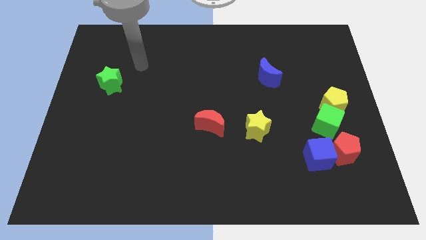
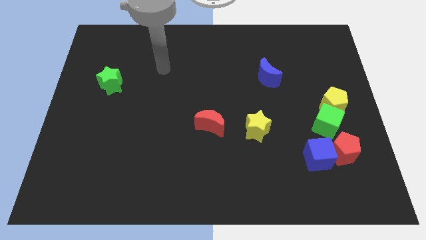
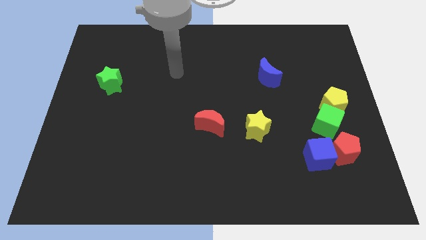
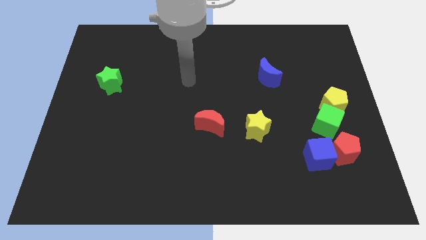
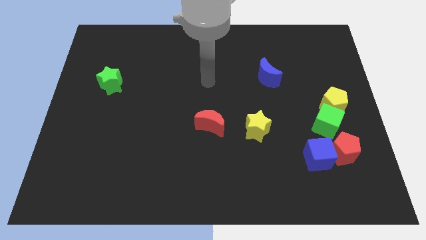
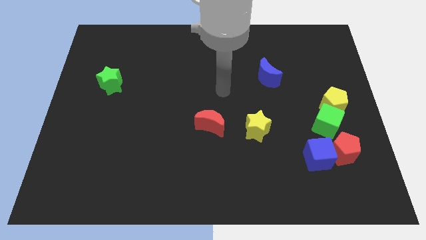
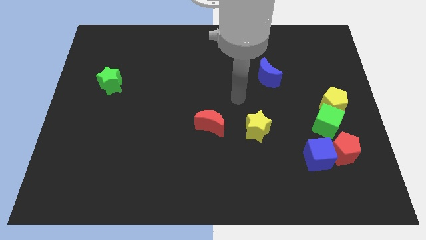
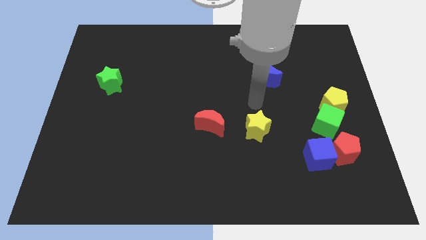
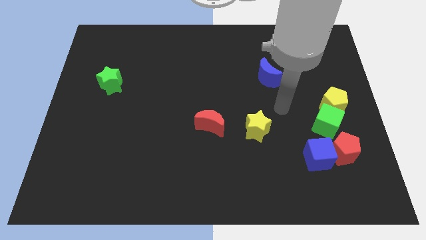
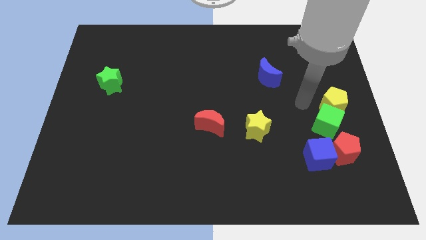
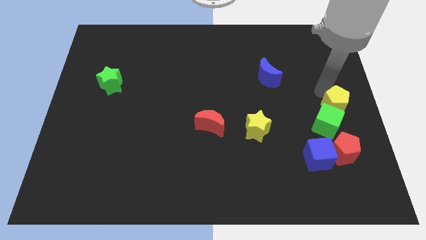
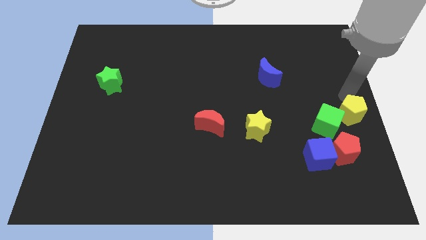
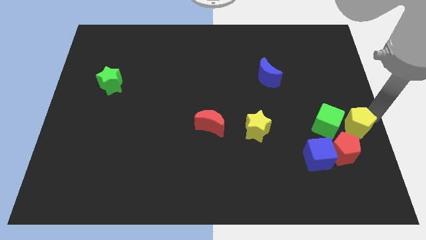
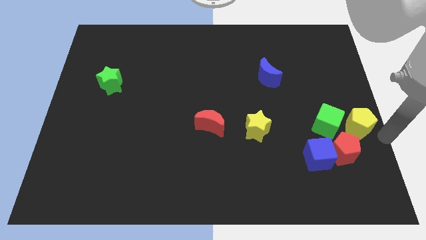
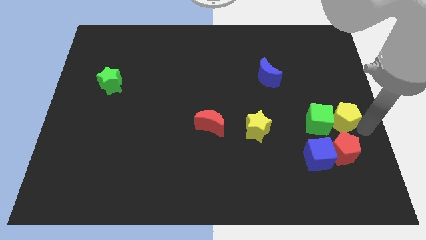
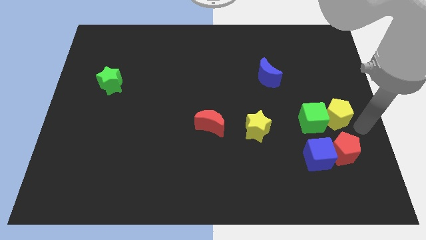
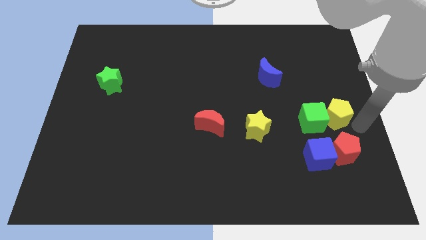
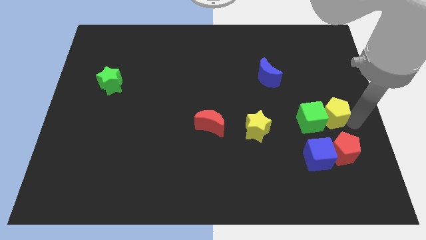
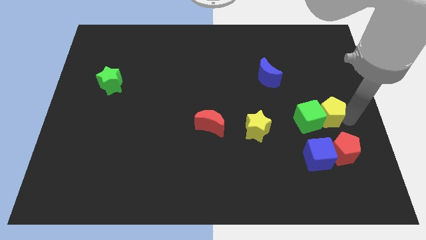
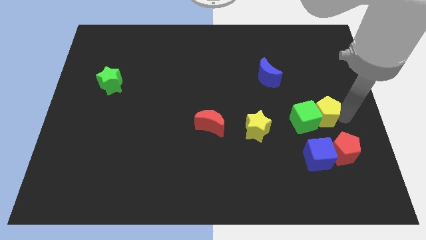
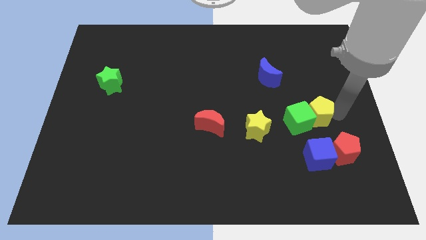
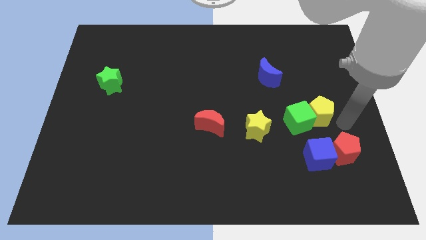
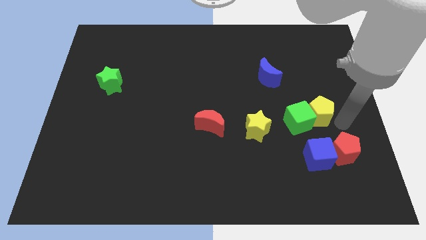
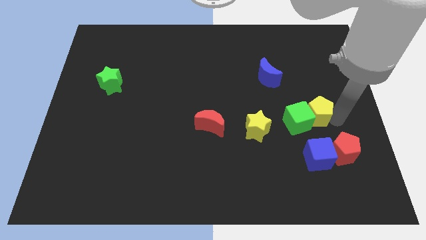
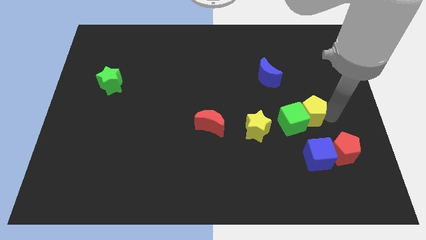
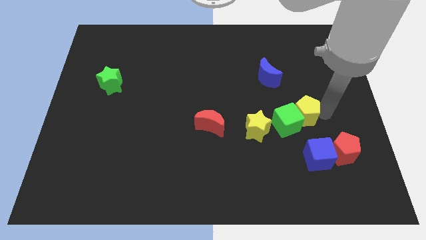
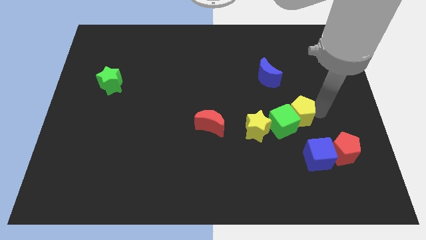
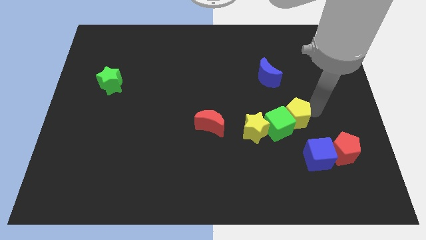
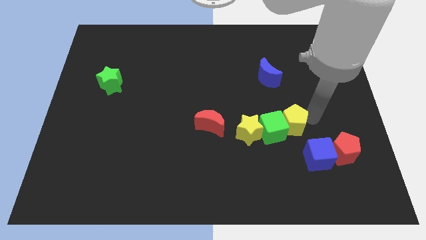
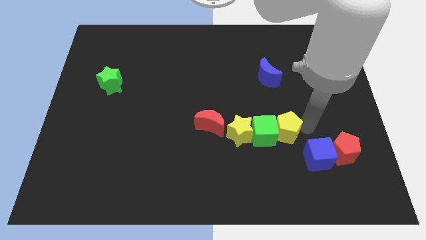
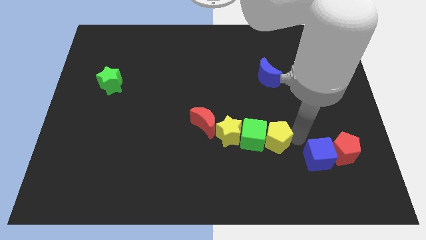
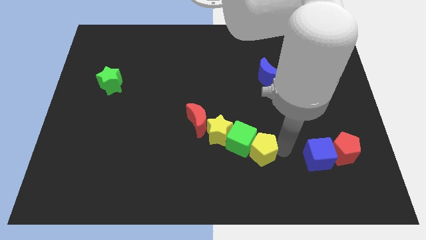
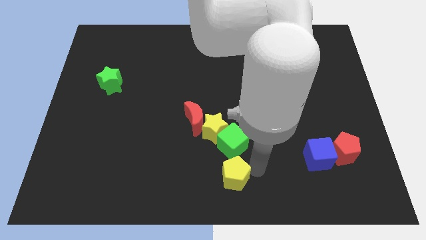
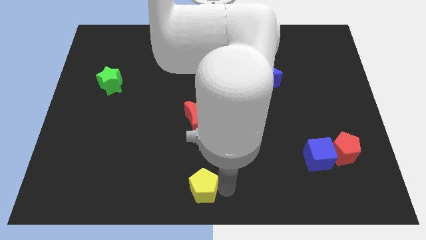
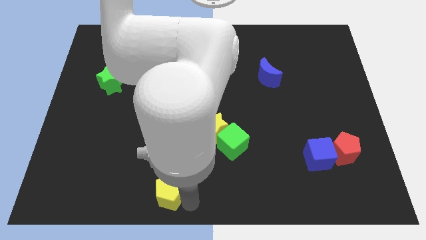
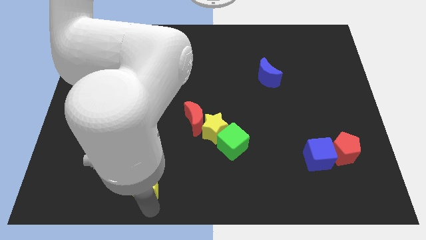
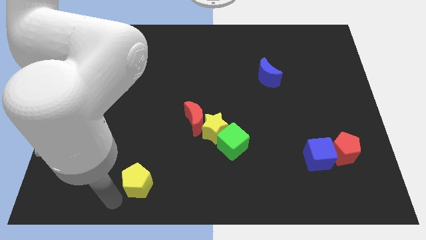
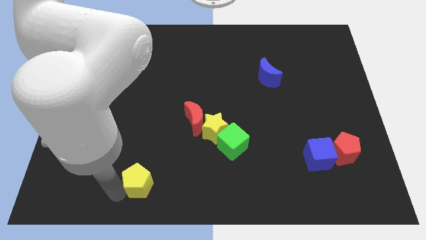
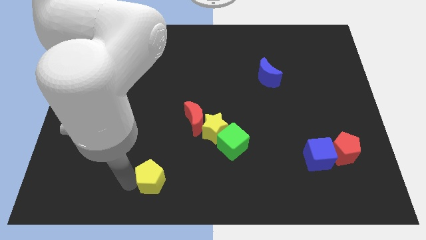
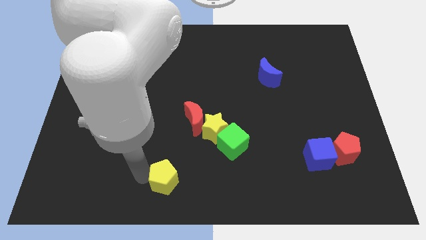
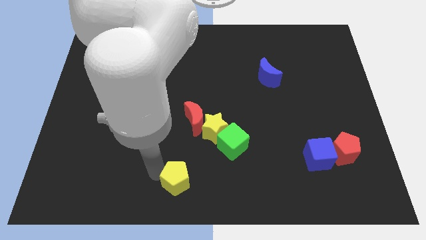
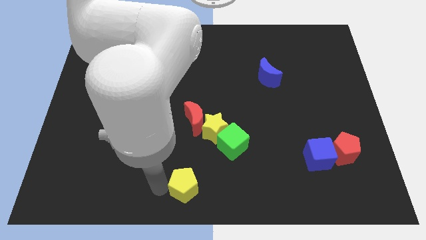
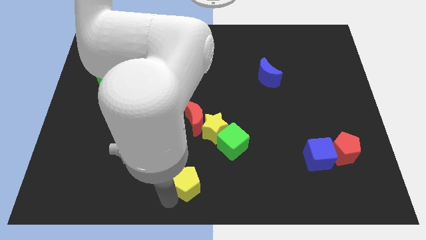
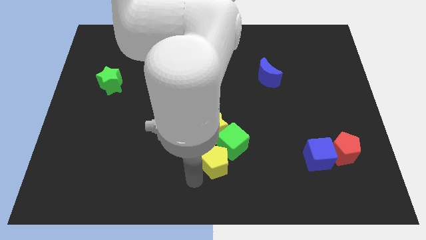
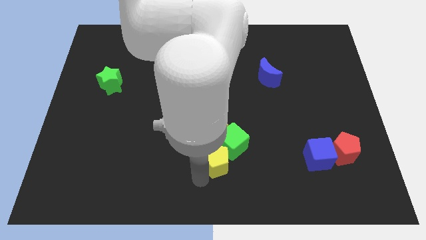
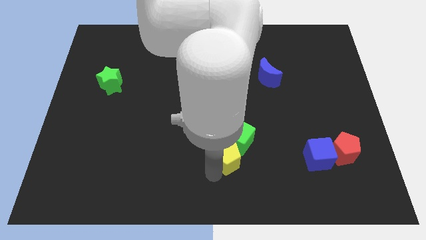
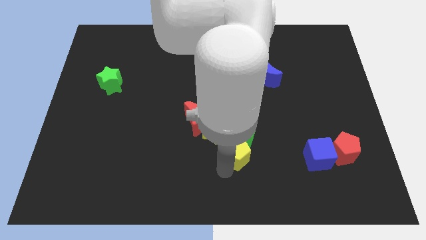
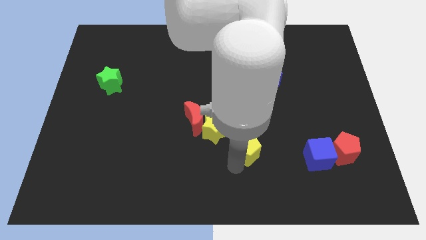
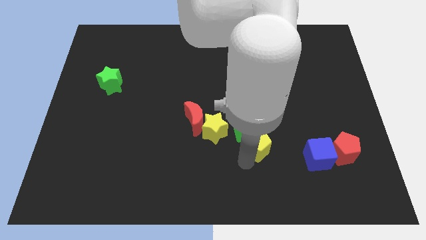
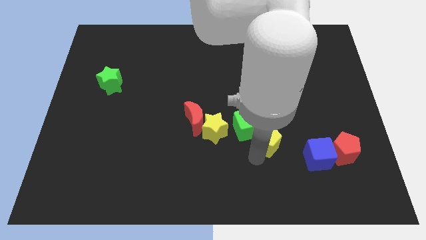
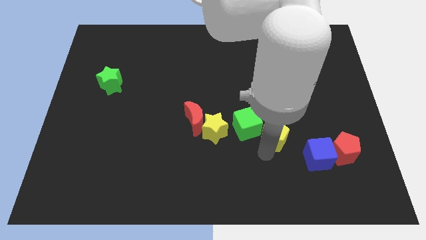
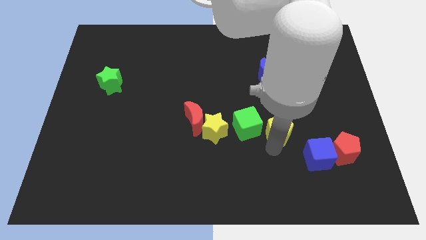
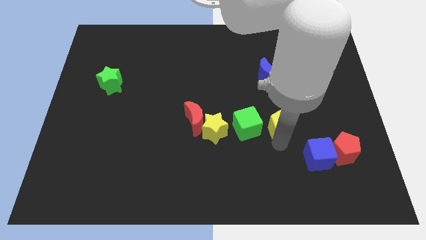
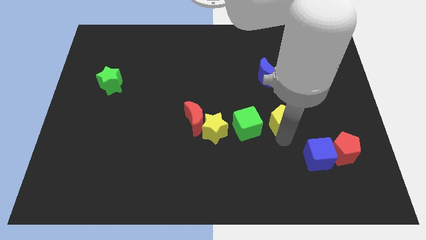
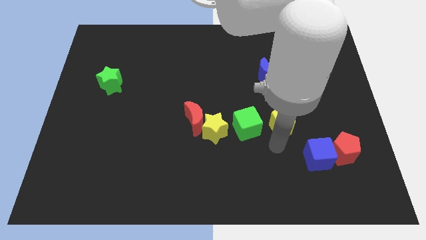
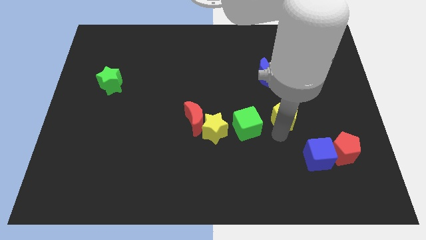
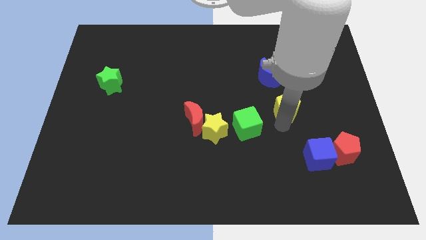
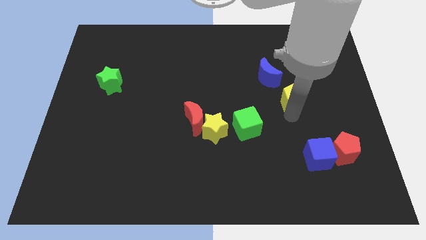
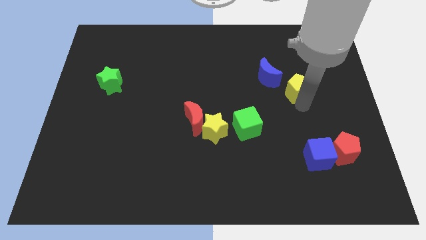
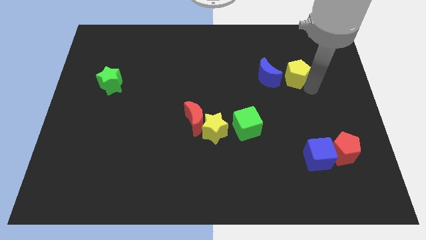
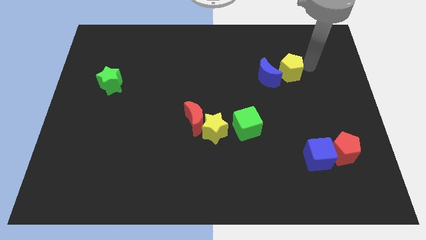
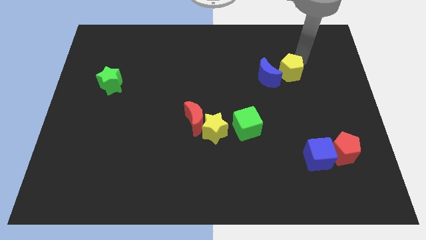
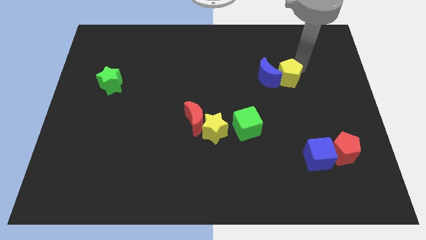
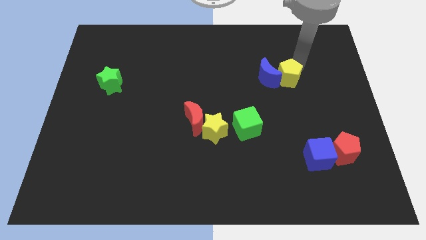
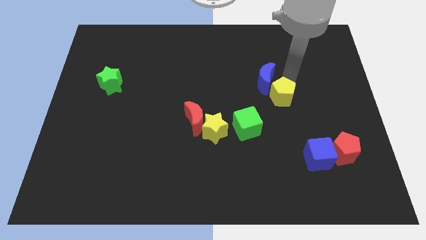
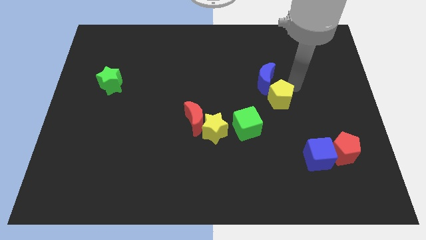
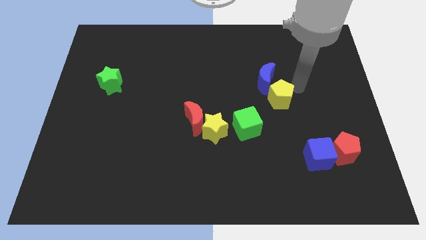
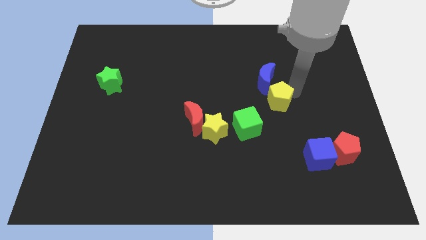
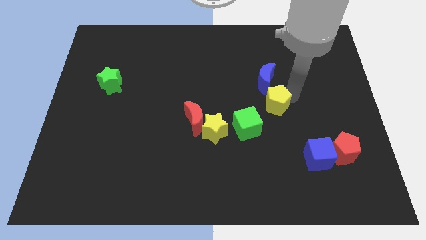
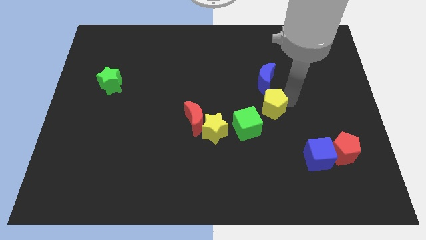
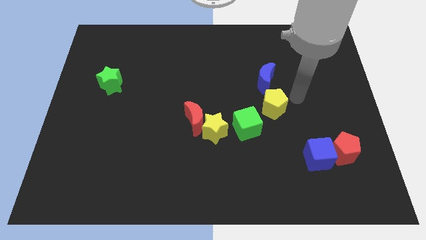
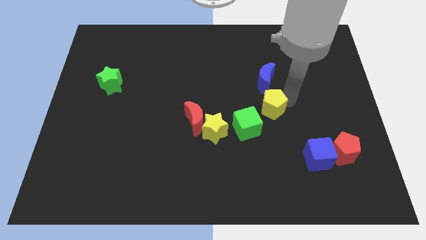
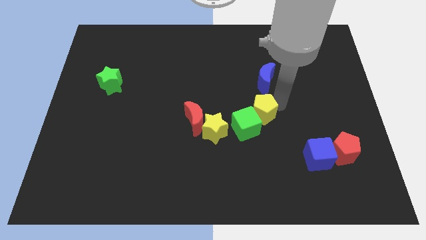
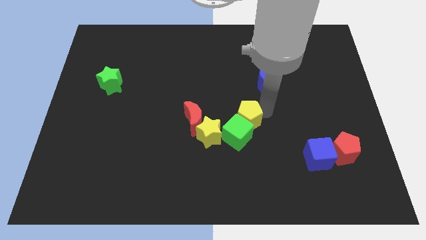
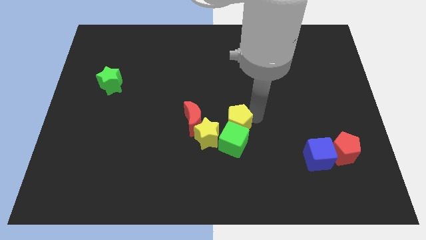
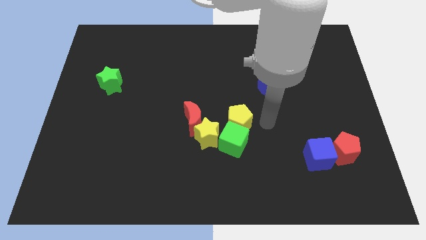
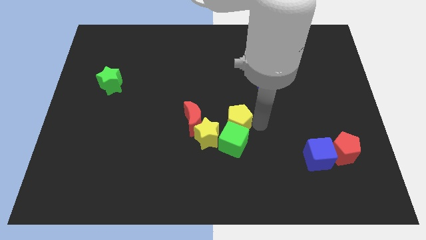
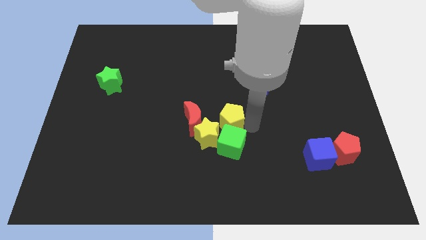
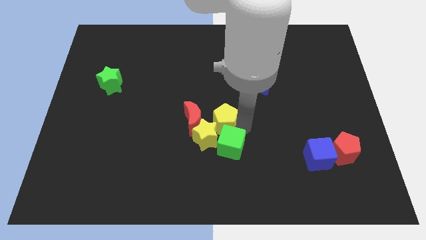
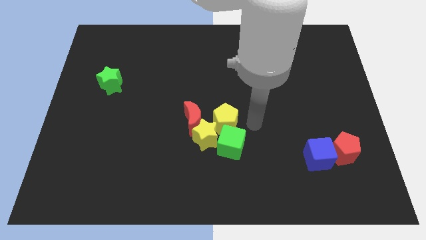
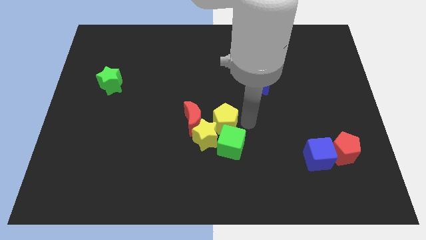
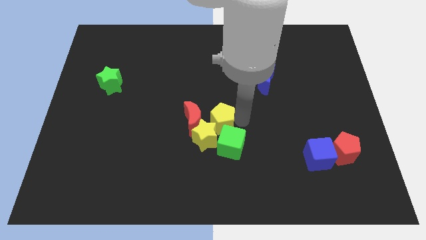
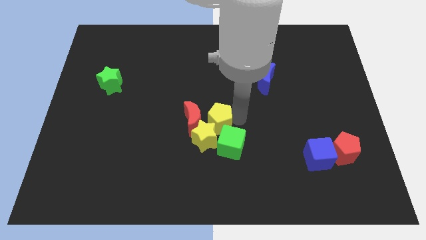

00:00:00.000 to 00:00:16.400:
move the yellow pentagon to the red moon
